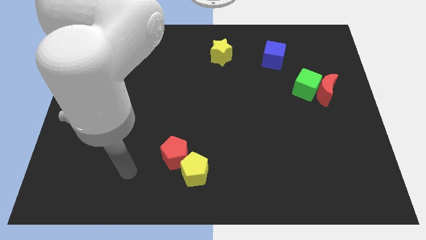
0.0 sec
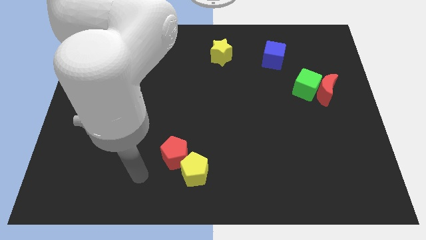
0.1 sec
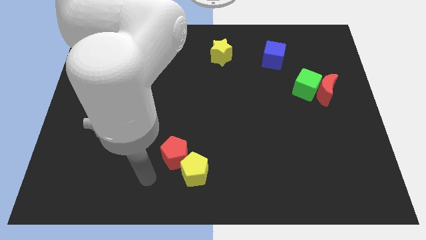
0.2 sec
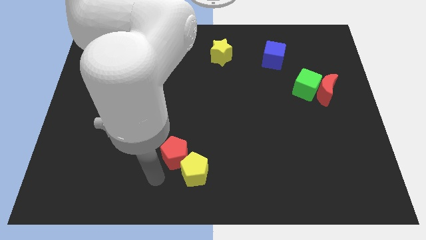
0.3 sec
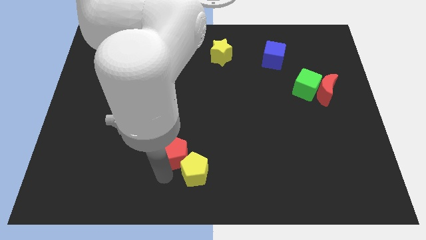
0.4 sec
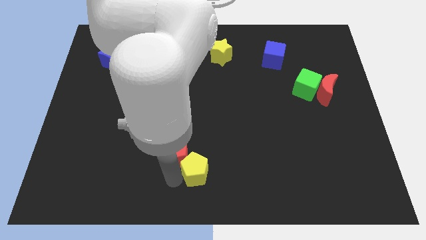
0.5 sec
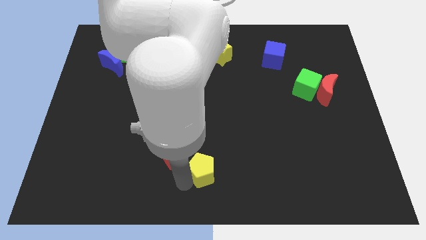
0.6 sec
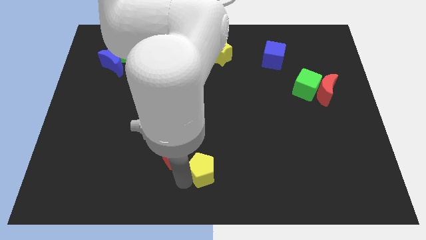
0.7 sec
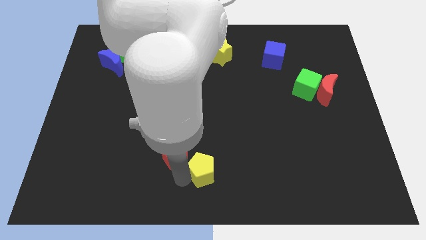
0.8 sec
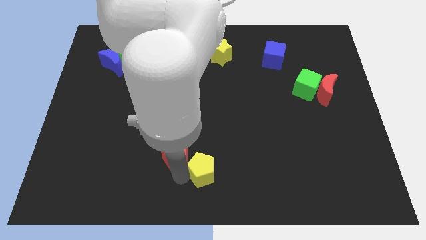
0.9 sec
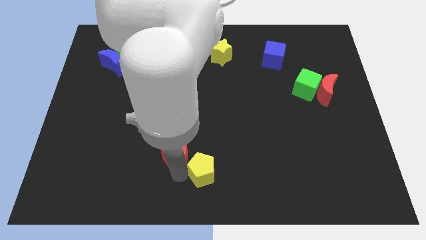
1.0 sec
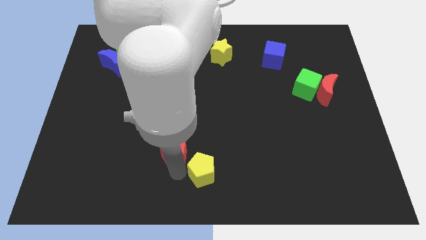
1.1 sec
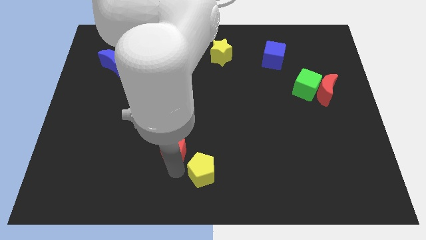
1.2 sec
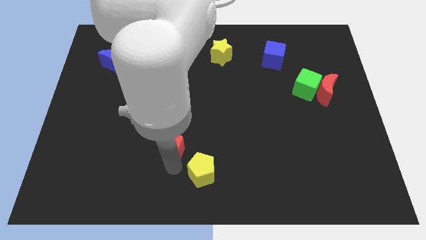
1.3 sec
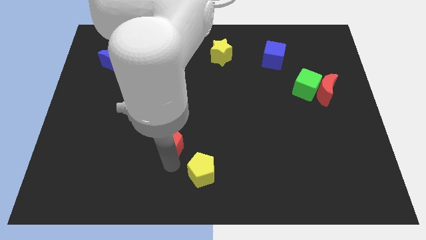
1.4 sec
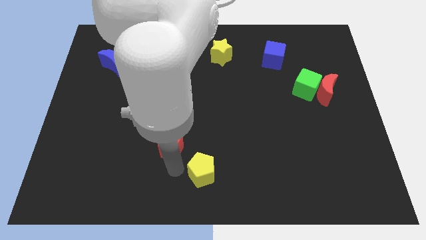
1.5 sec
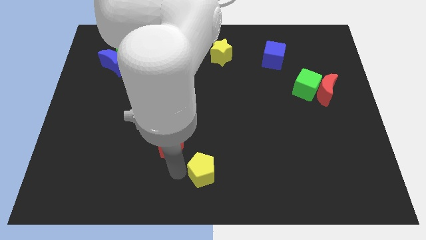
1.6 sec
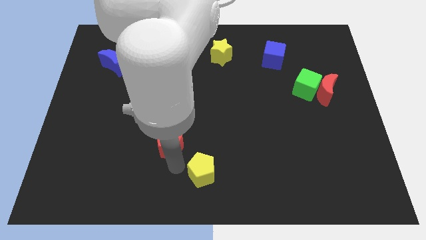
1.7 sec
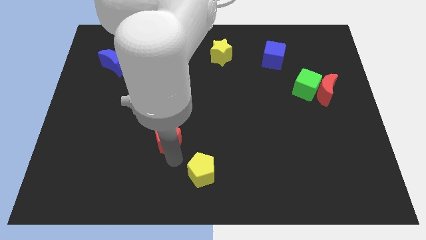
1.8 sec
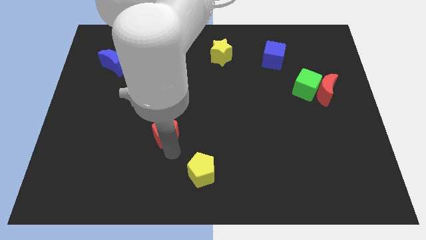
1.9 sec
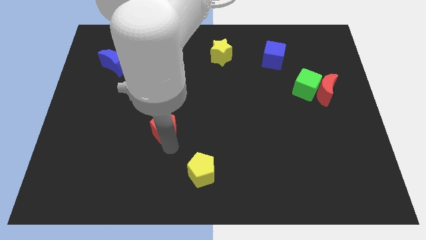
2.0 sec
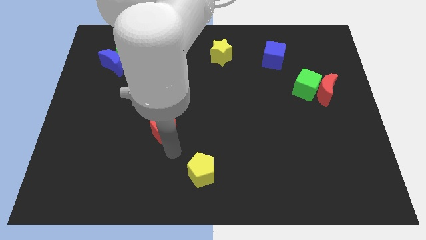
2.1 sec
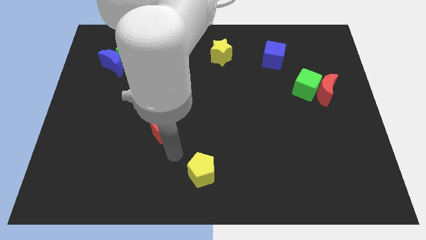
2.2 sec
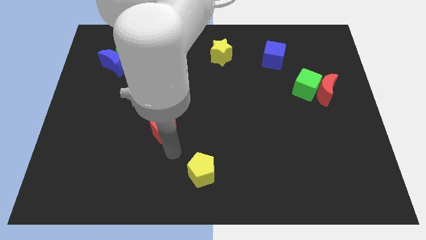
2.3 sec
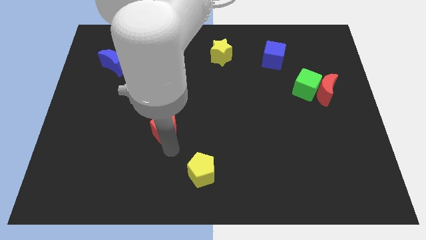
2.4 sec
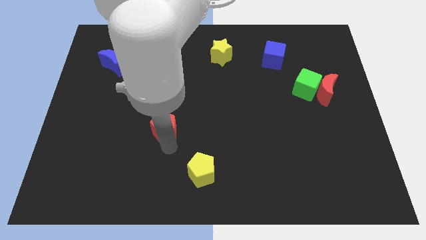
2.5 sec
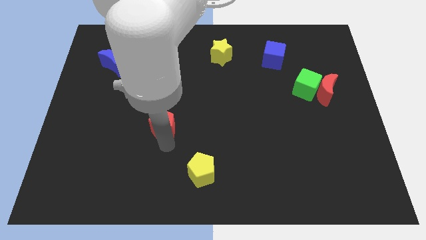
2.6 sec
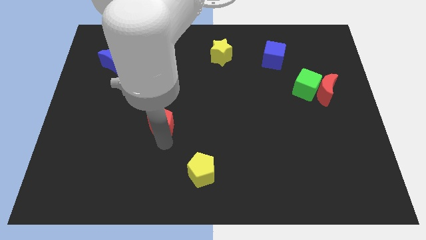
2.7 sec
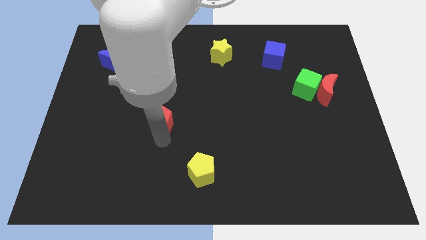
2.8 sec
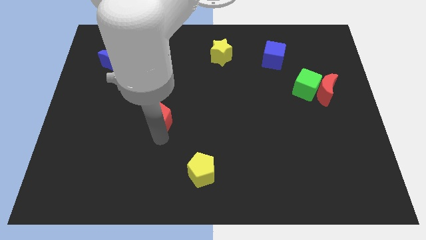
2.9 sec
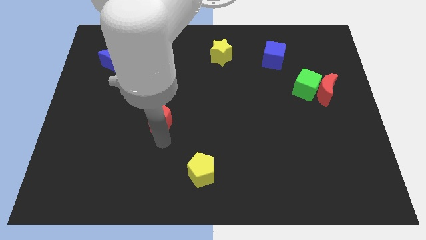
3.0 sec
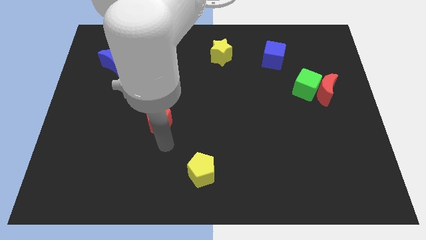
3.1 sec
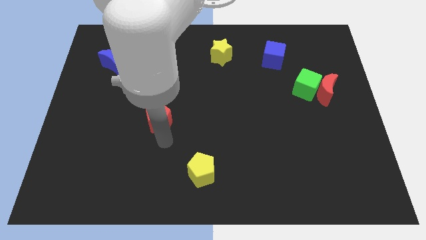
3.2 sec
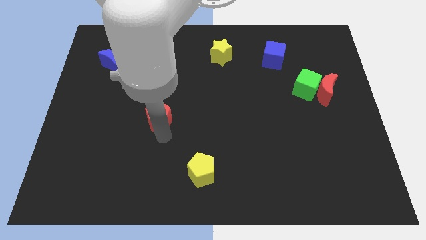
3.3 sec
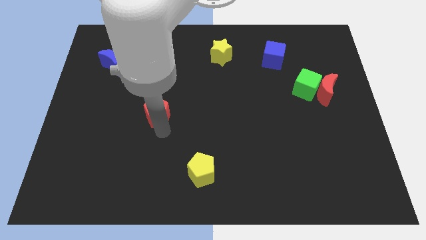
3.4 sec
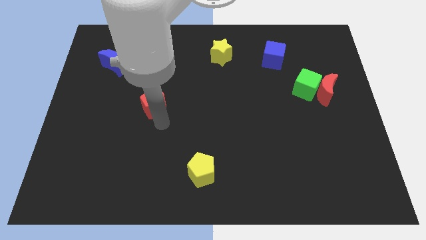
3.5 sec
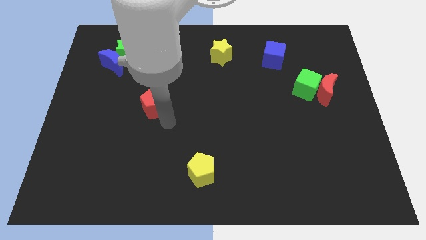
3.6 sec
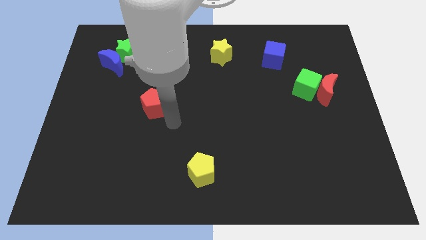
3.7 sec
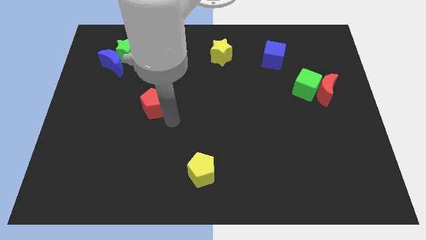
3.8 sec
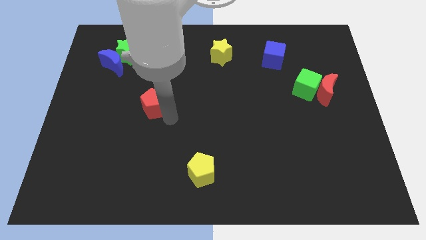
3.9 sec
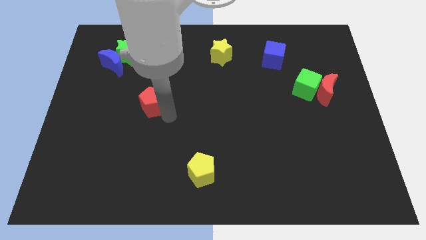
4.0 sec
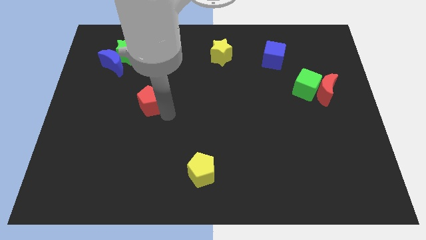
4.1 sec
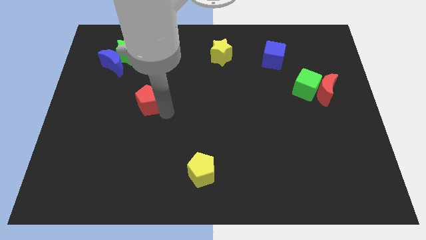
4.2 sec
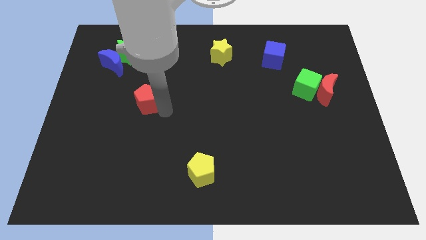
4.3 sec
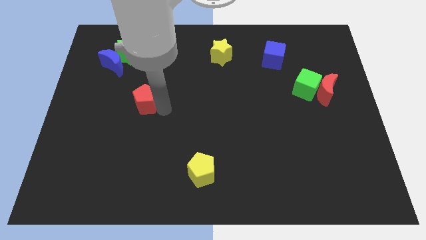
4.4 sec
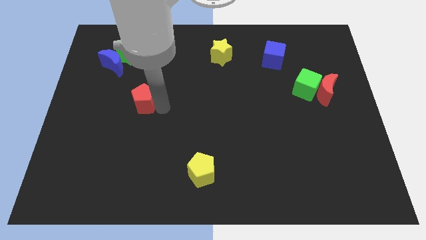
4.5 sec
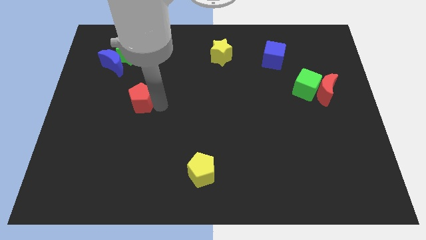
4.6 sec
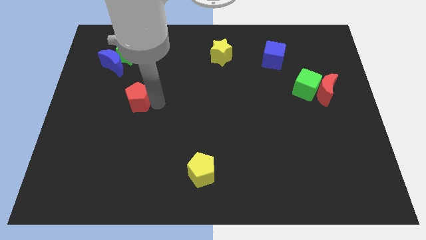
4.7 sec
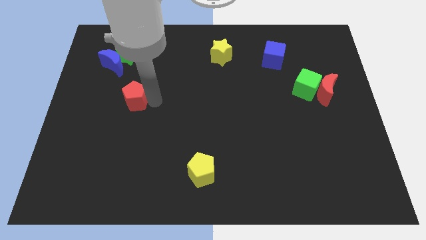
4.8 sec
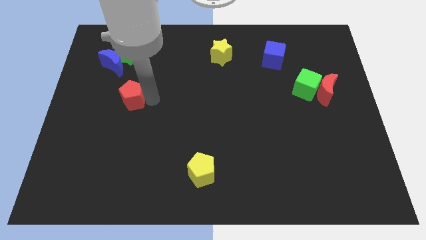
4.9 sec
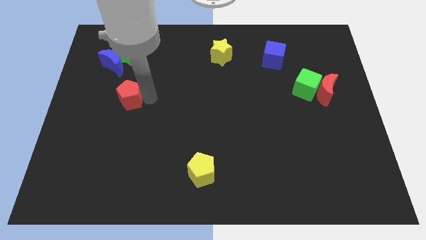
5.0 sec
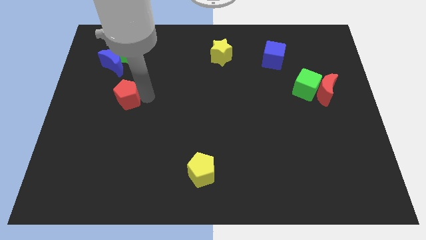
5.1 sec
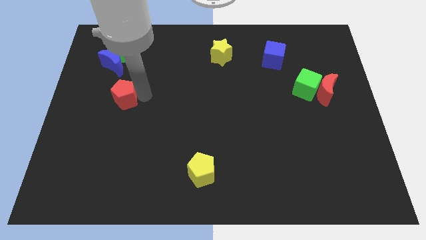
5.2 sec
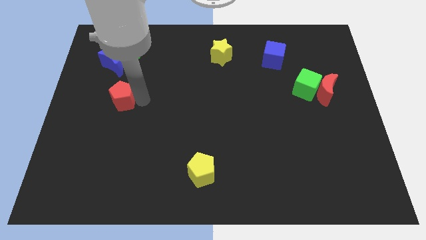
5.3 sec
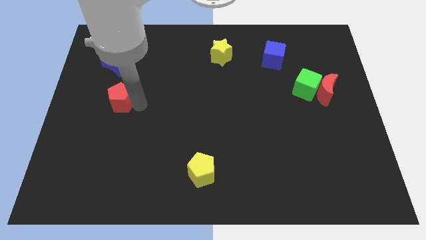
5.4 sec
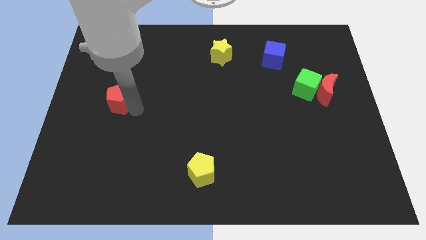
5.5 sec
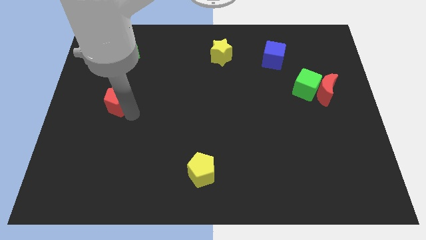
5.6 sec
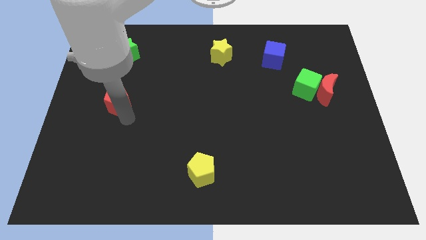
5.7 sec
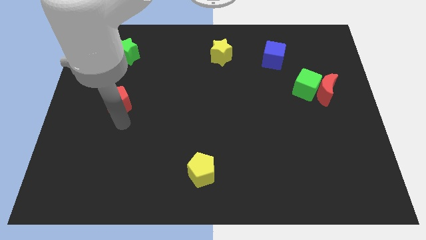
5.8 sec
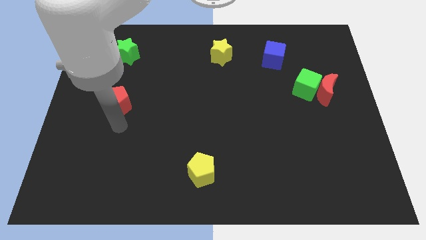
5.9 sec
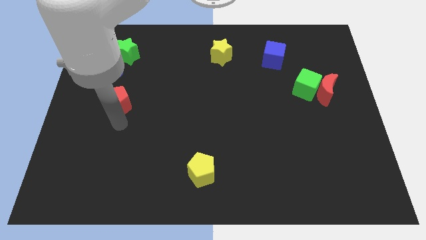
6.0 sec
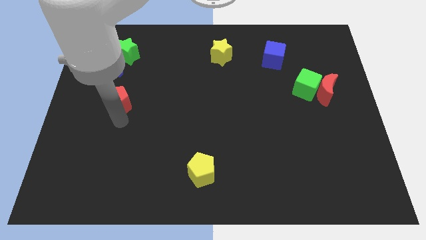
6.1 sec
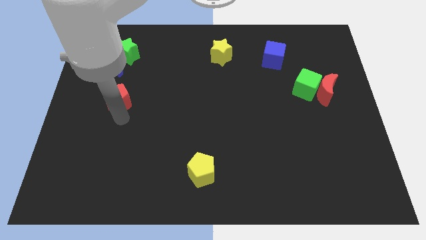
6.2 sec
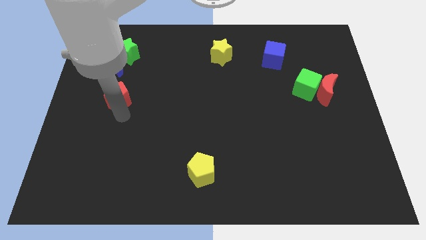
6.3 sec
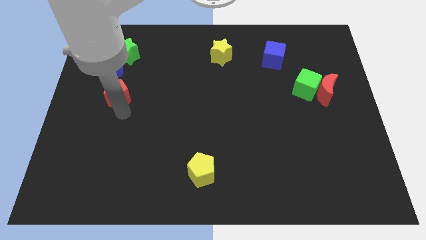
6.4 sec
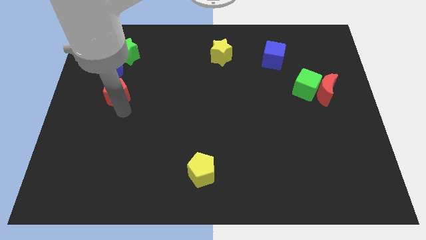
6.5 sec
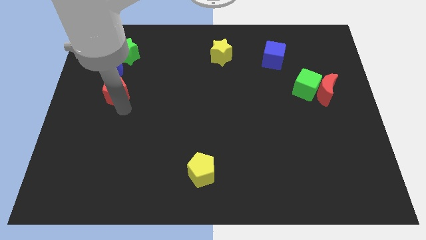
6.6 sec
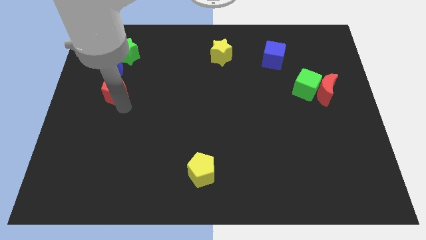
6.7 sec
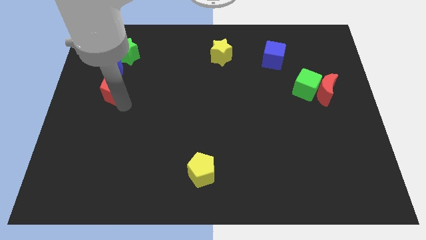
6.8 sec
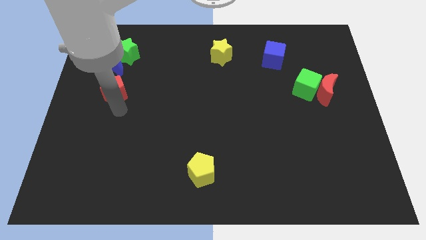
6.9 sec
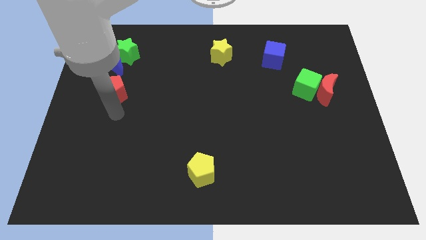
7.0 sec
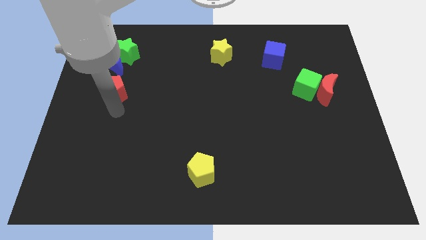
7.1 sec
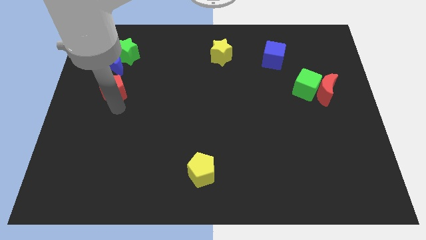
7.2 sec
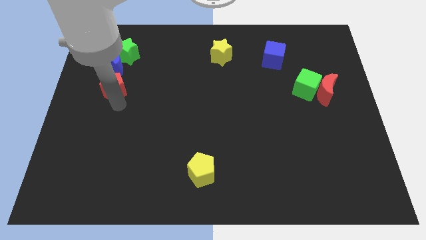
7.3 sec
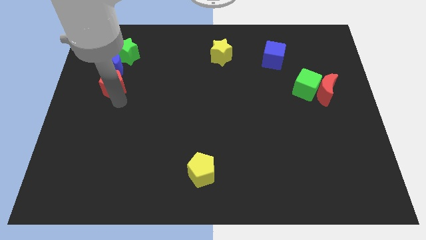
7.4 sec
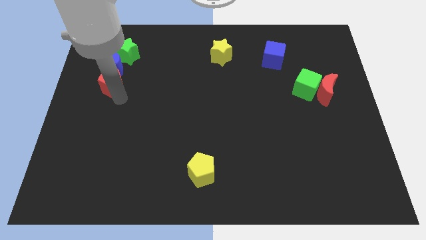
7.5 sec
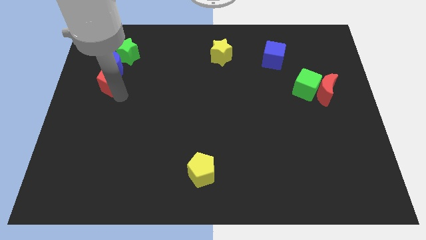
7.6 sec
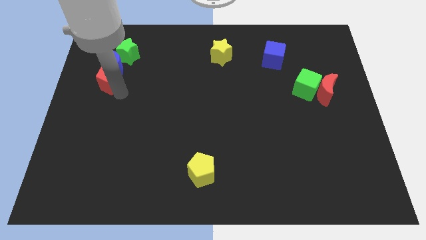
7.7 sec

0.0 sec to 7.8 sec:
put the red pentagon towards the blue moon

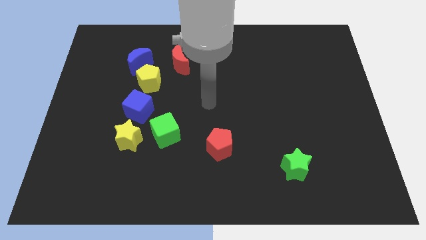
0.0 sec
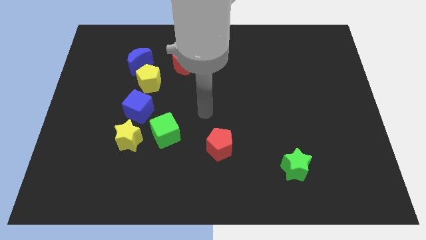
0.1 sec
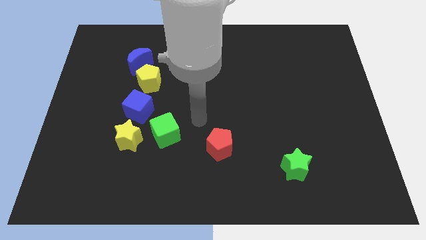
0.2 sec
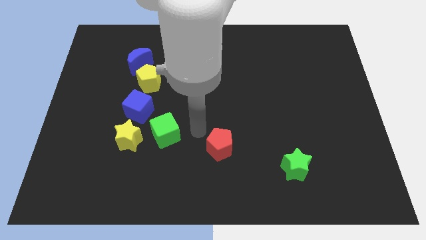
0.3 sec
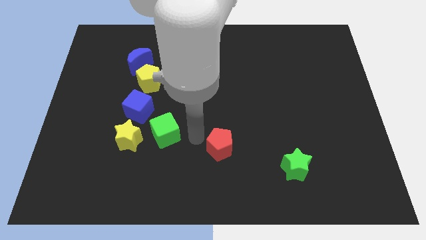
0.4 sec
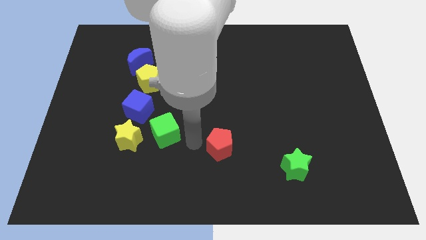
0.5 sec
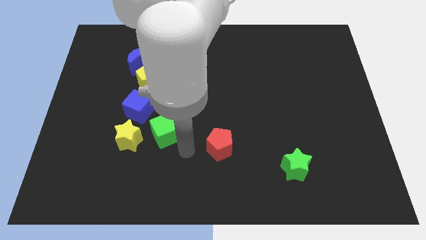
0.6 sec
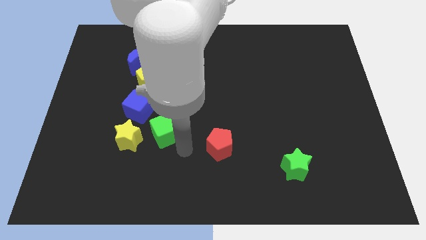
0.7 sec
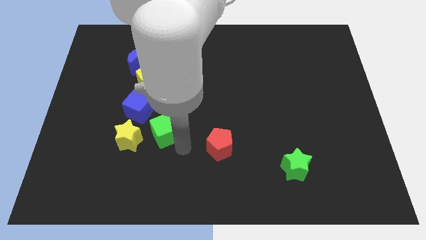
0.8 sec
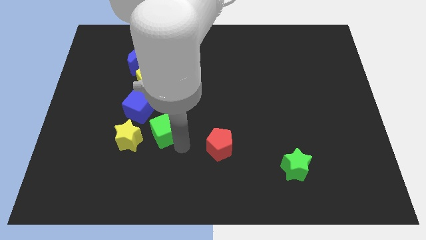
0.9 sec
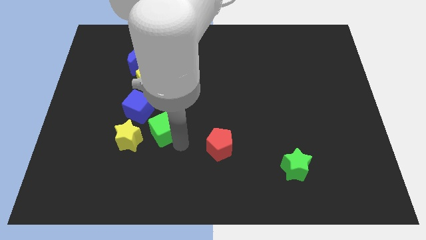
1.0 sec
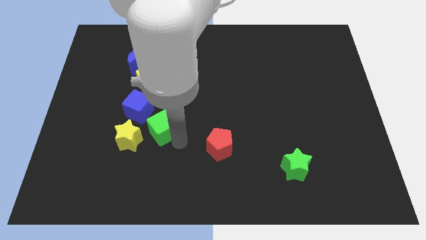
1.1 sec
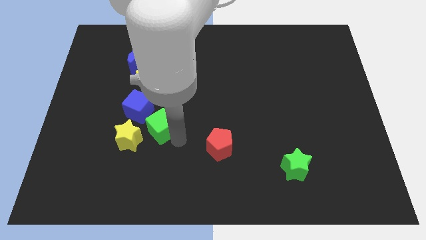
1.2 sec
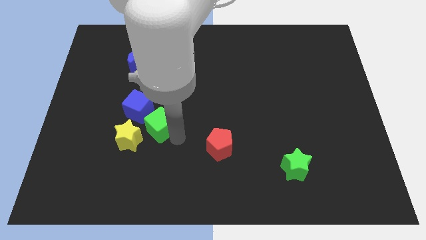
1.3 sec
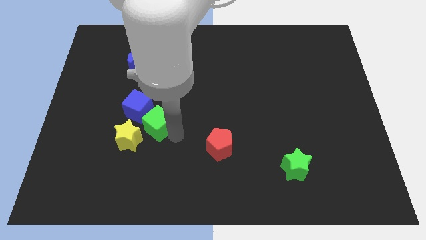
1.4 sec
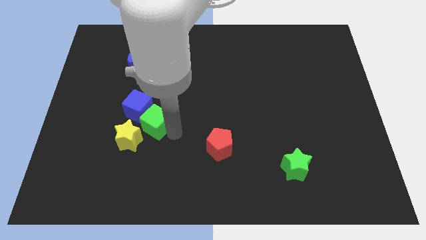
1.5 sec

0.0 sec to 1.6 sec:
slide the green cube to the blue cube
